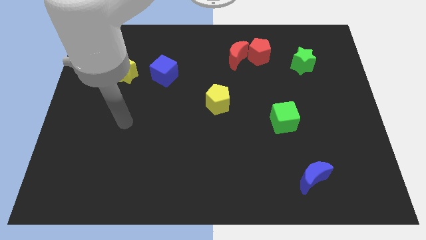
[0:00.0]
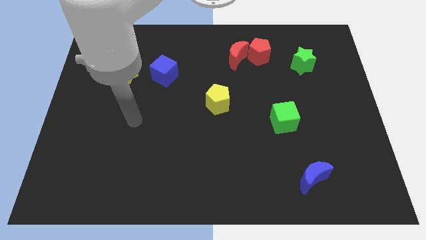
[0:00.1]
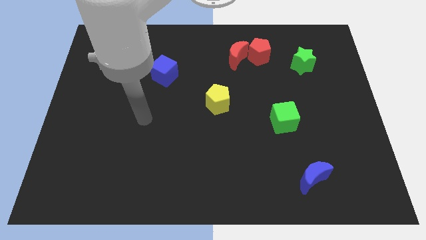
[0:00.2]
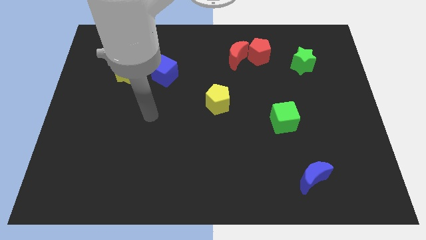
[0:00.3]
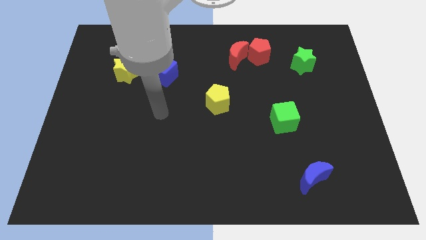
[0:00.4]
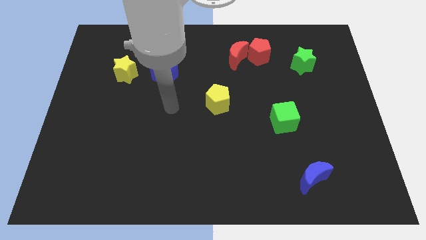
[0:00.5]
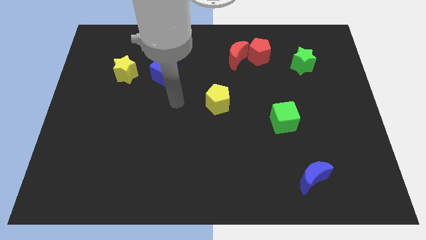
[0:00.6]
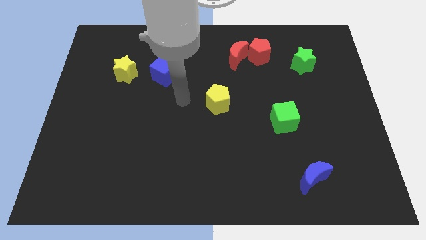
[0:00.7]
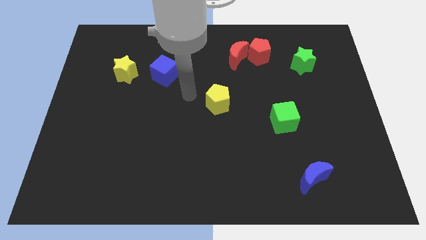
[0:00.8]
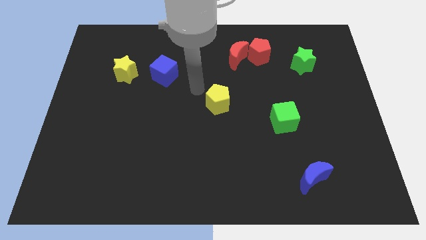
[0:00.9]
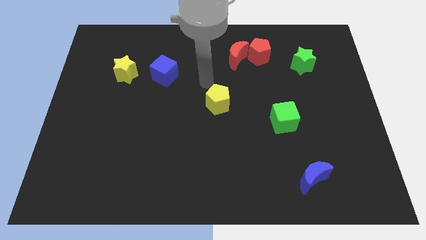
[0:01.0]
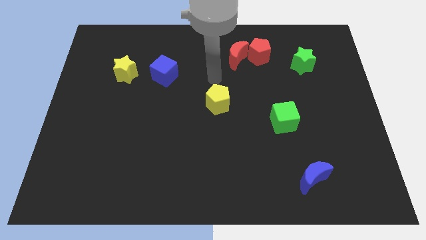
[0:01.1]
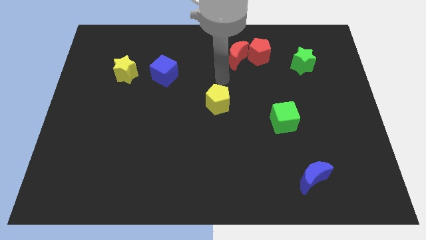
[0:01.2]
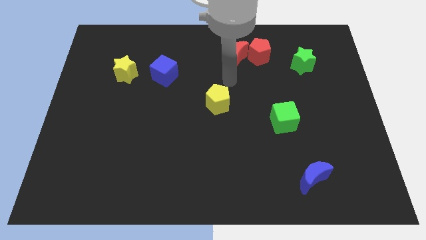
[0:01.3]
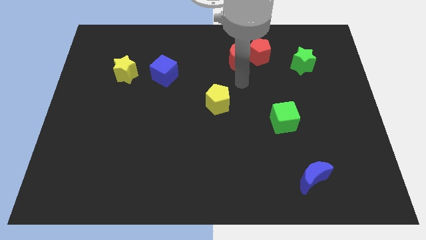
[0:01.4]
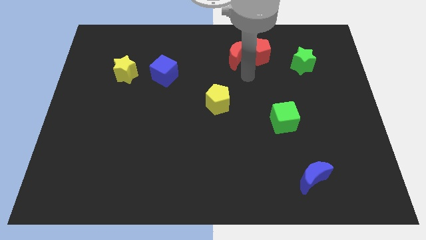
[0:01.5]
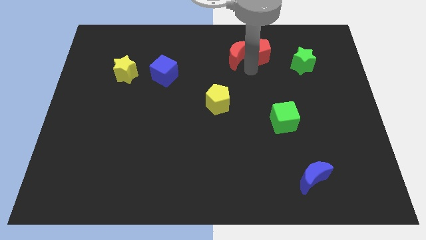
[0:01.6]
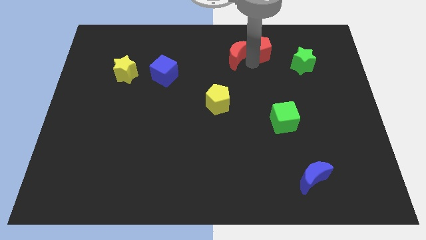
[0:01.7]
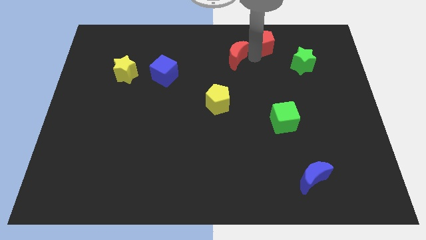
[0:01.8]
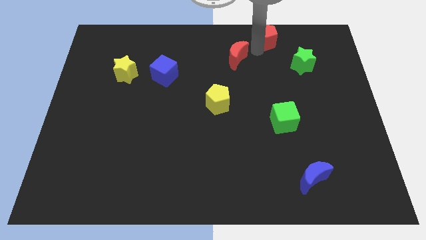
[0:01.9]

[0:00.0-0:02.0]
separate the red moon from the red pentagon

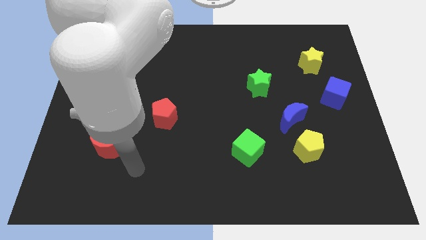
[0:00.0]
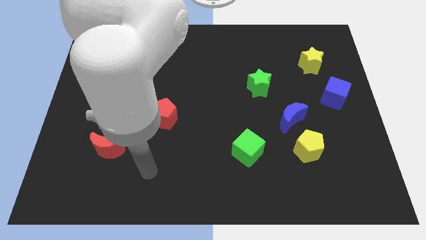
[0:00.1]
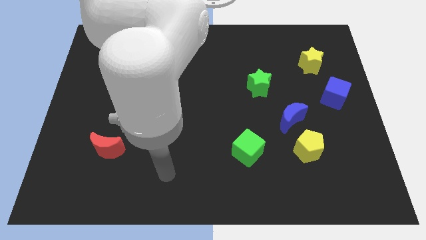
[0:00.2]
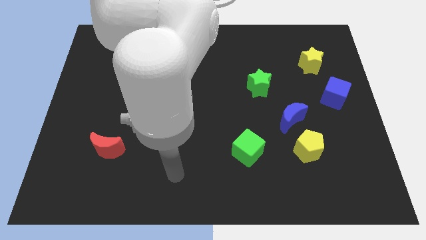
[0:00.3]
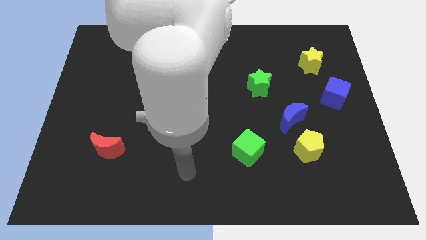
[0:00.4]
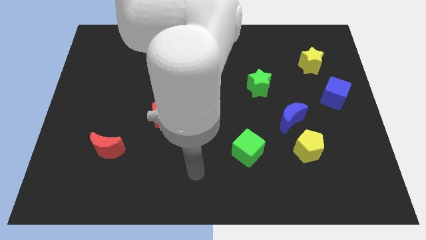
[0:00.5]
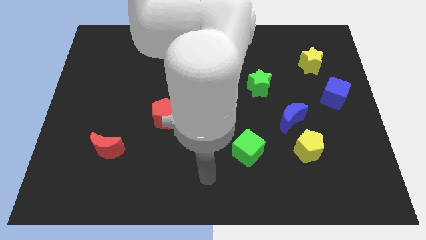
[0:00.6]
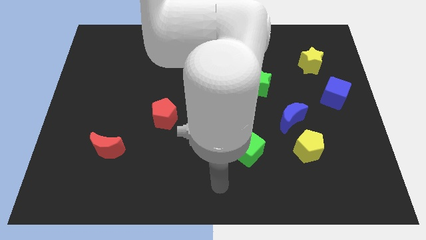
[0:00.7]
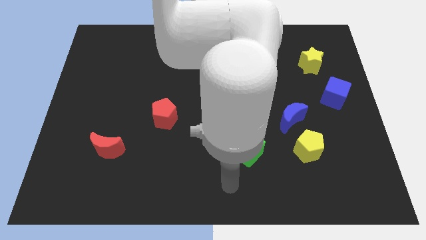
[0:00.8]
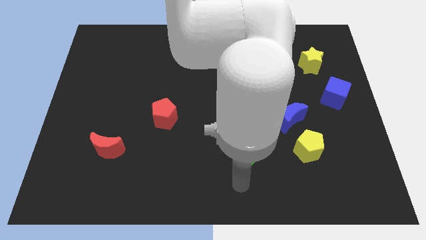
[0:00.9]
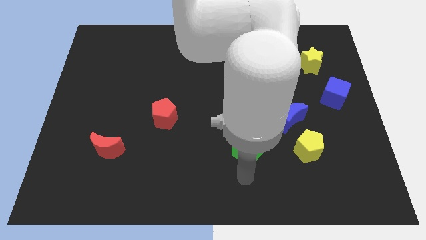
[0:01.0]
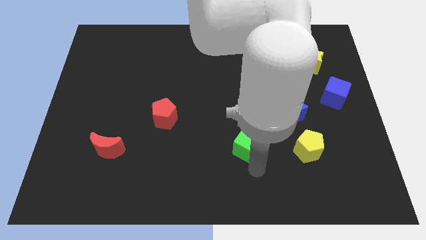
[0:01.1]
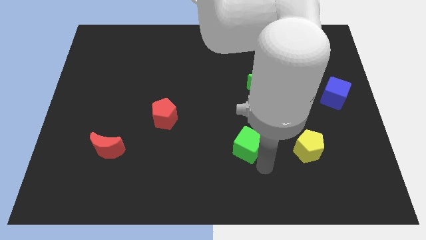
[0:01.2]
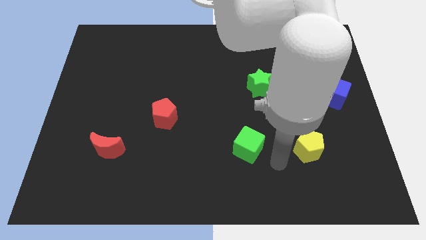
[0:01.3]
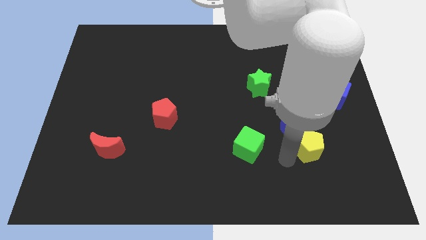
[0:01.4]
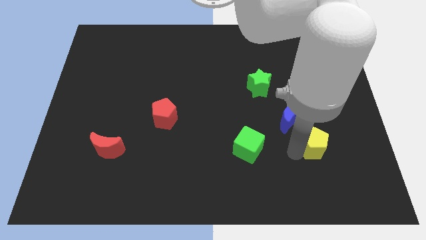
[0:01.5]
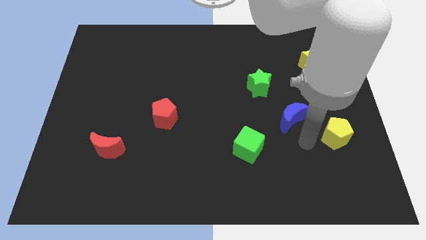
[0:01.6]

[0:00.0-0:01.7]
separate the blue moon from the yellow pentagon

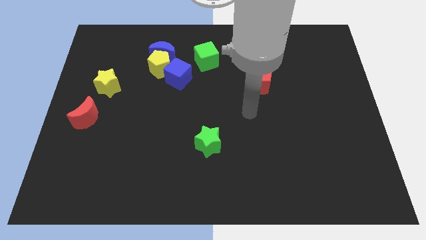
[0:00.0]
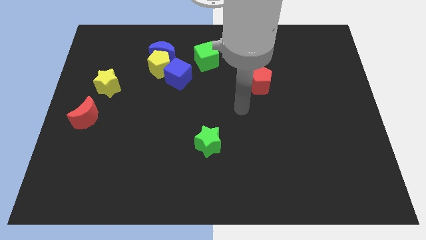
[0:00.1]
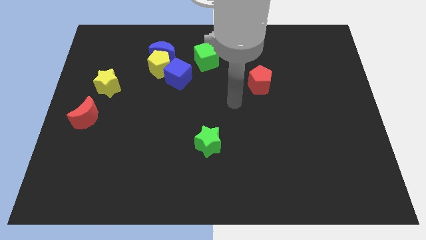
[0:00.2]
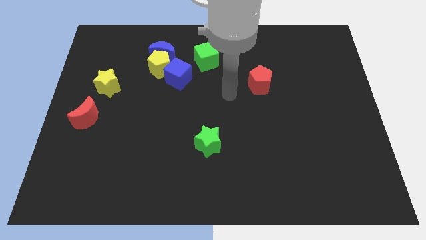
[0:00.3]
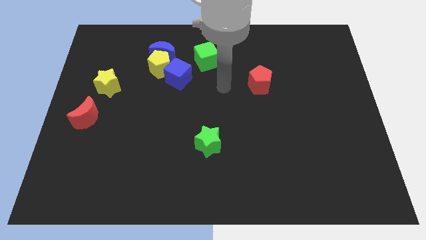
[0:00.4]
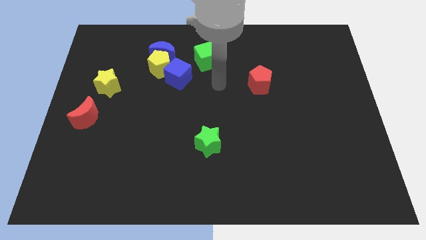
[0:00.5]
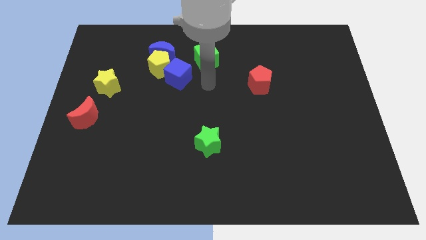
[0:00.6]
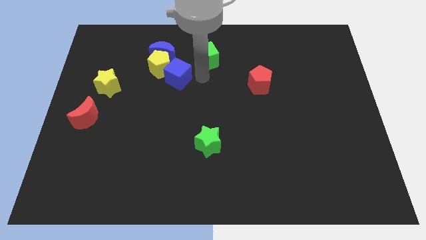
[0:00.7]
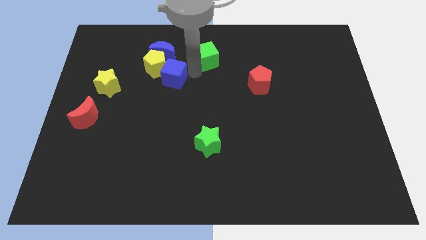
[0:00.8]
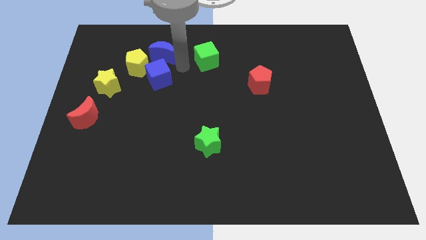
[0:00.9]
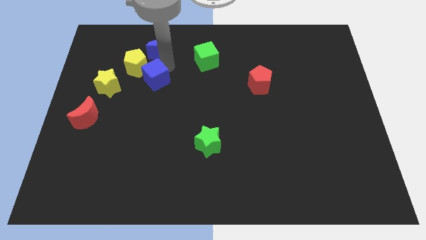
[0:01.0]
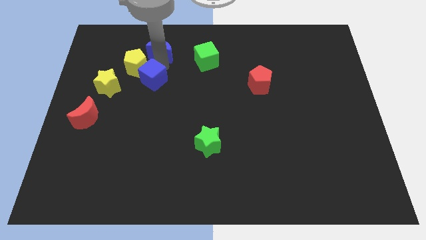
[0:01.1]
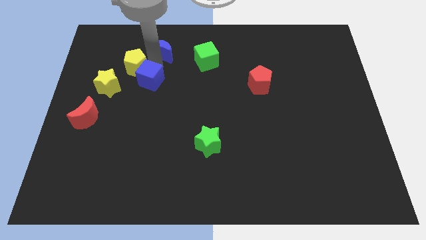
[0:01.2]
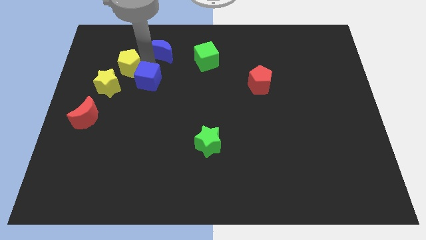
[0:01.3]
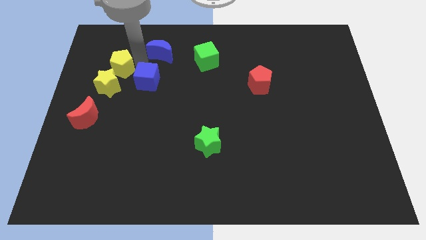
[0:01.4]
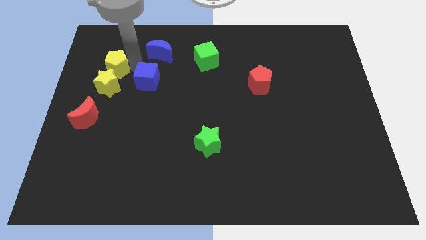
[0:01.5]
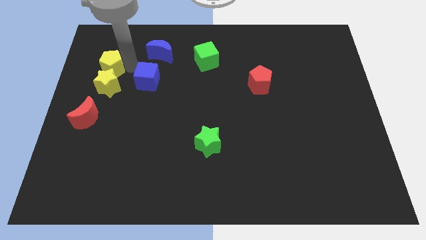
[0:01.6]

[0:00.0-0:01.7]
pull the yellow pentagon apart from the blue moon and blue cube

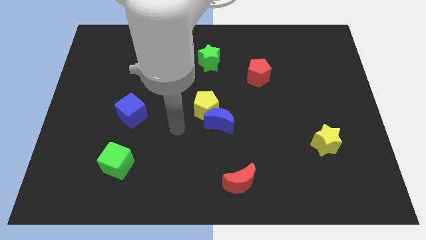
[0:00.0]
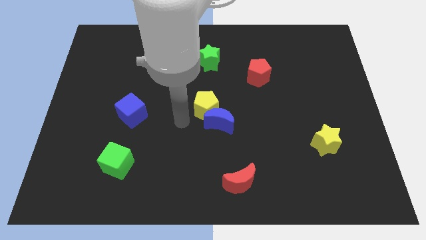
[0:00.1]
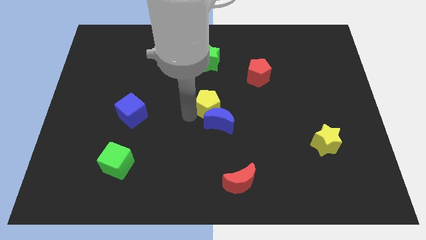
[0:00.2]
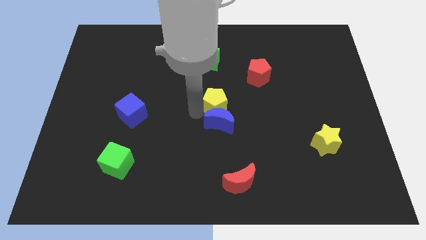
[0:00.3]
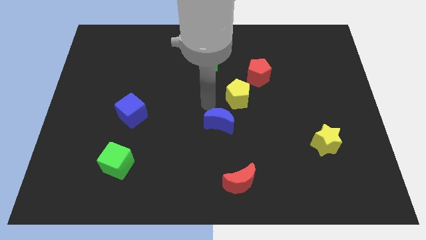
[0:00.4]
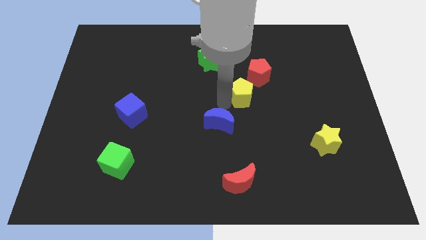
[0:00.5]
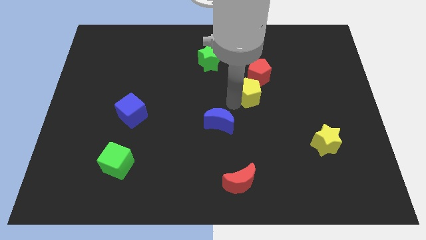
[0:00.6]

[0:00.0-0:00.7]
move the blue moon away from the yellow pentagon

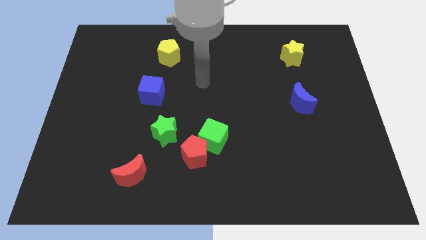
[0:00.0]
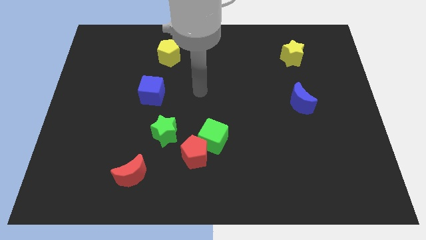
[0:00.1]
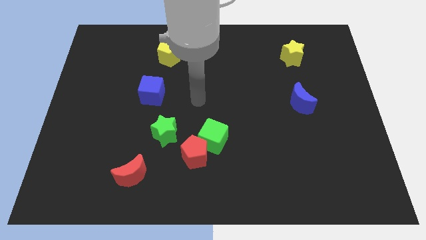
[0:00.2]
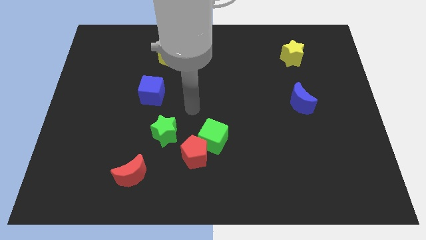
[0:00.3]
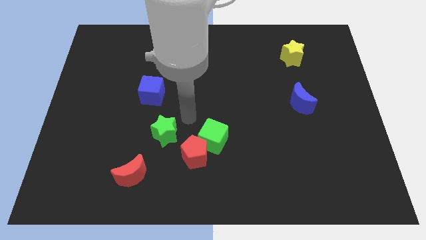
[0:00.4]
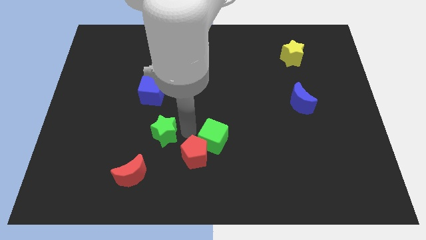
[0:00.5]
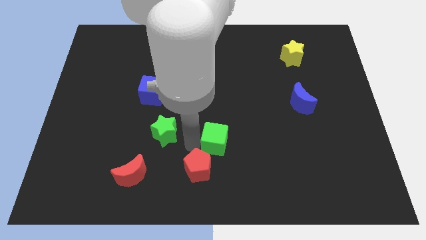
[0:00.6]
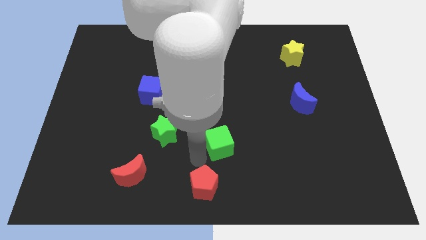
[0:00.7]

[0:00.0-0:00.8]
pull the green cube apart from the red pentagon

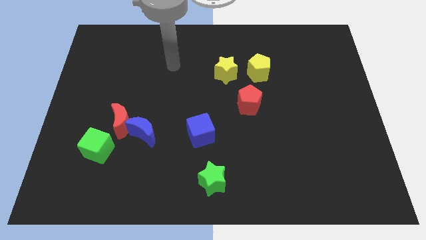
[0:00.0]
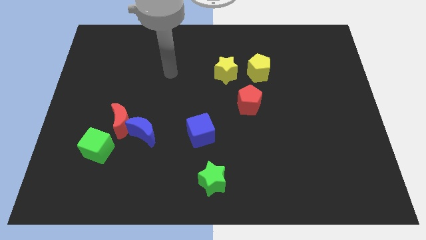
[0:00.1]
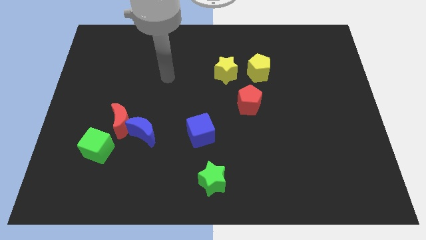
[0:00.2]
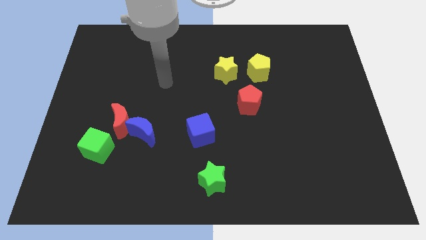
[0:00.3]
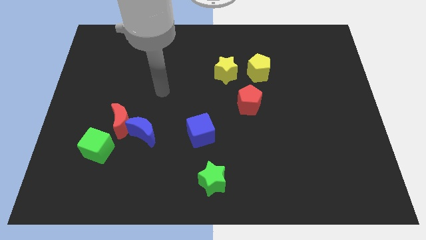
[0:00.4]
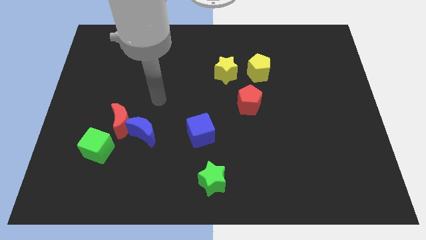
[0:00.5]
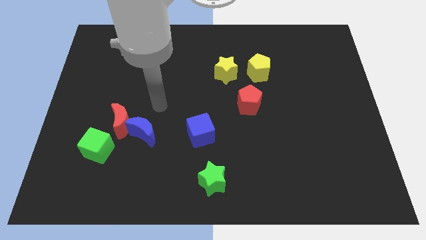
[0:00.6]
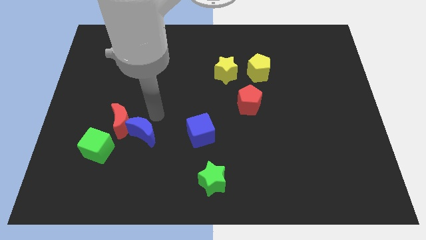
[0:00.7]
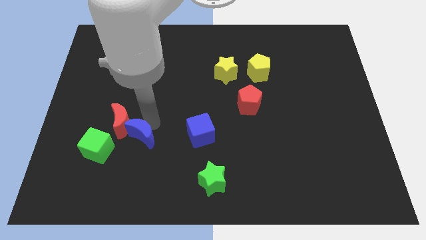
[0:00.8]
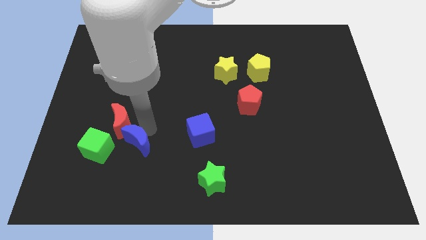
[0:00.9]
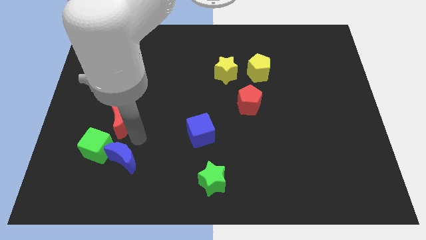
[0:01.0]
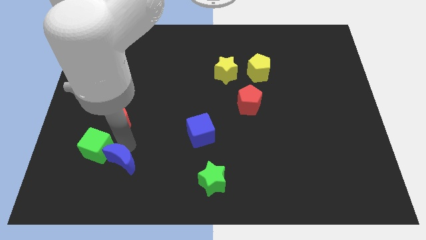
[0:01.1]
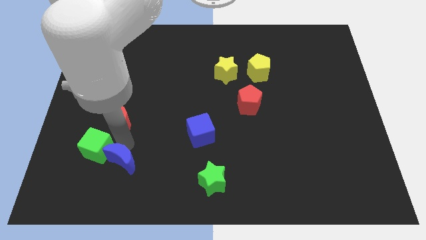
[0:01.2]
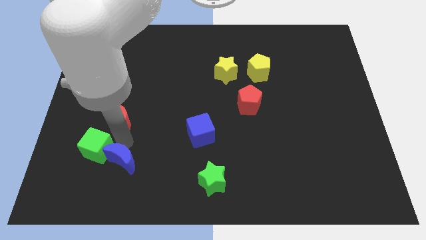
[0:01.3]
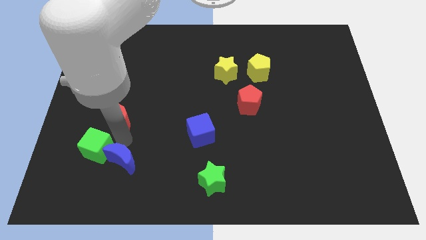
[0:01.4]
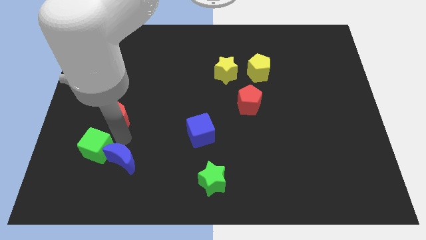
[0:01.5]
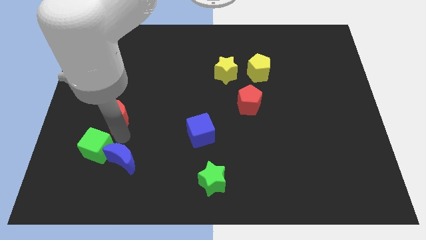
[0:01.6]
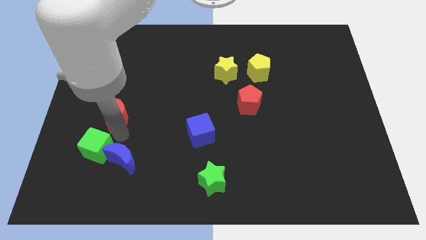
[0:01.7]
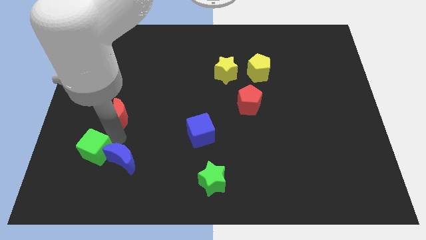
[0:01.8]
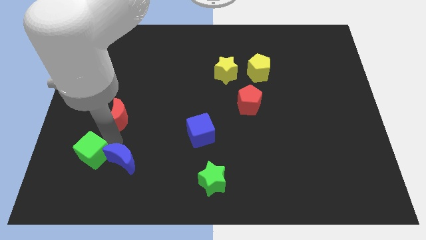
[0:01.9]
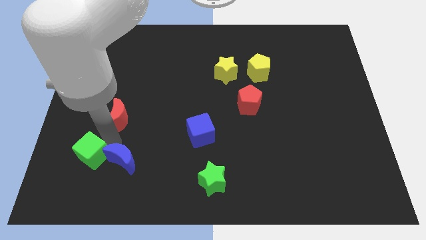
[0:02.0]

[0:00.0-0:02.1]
pull the red moon apart from the blue moon and green cube

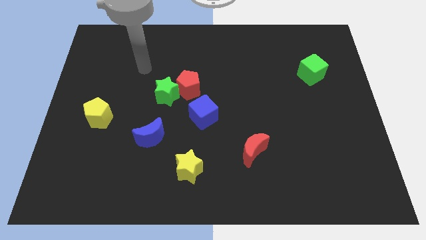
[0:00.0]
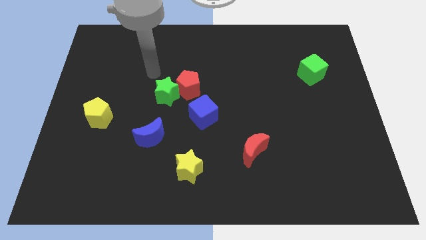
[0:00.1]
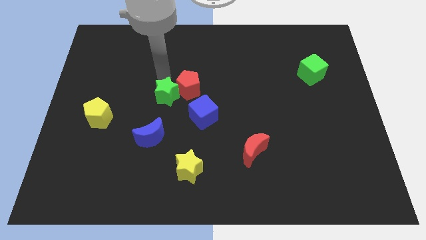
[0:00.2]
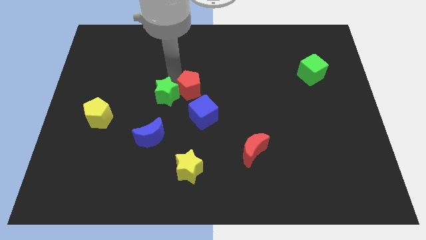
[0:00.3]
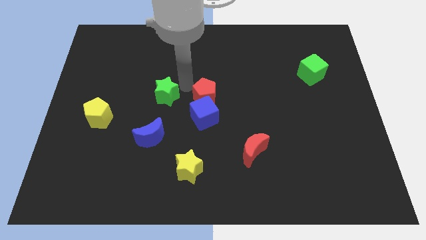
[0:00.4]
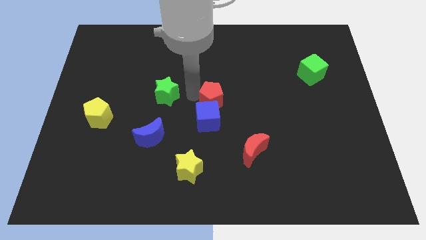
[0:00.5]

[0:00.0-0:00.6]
pull the green star apart from the red pentagon
